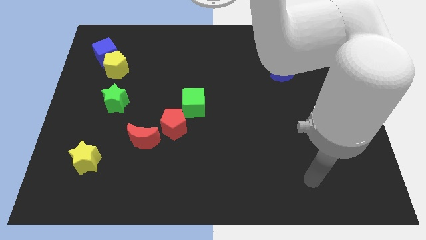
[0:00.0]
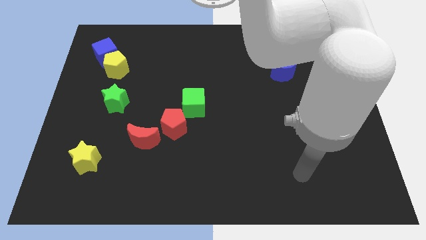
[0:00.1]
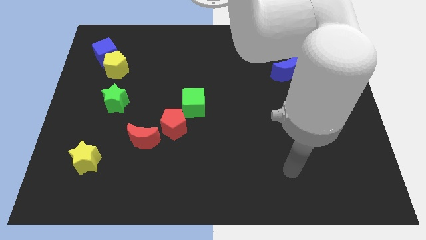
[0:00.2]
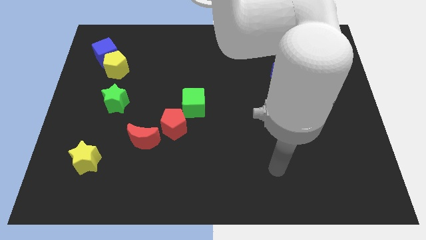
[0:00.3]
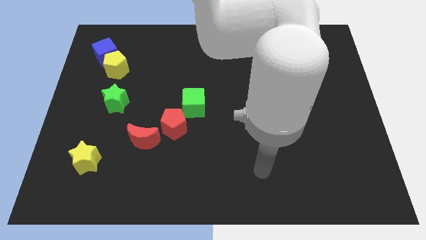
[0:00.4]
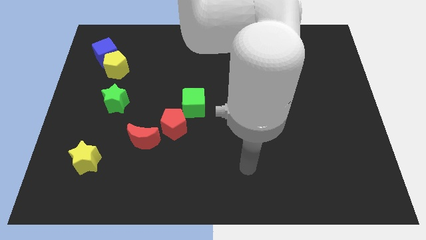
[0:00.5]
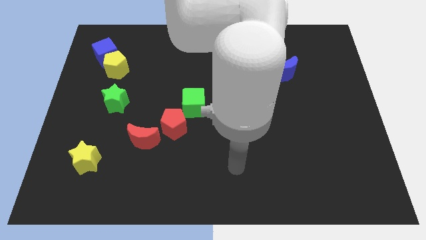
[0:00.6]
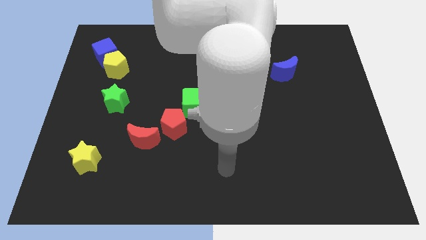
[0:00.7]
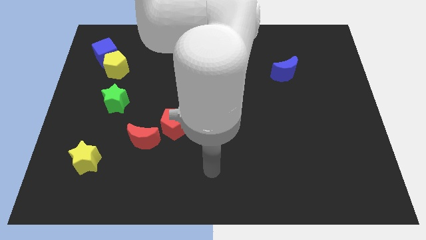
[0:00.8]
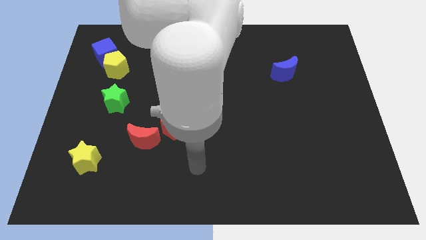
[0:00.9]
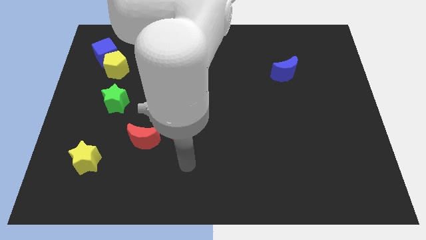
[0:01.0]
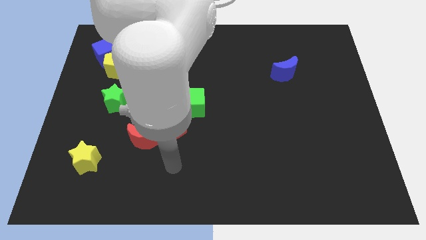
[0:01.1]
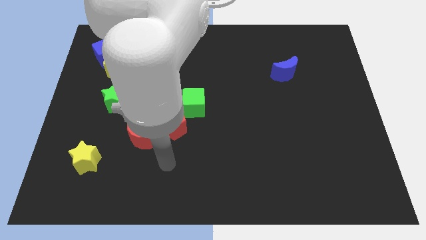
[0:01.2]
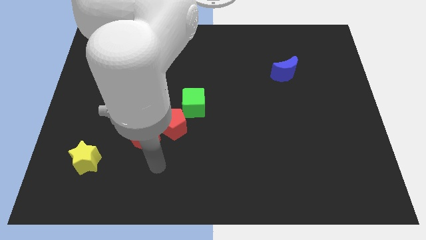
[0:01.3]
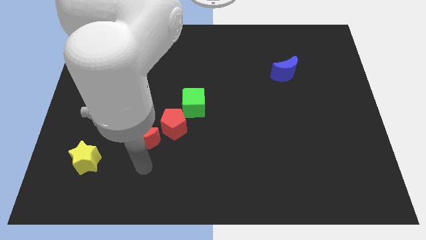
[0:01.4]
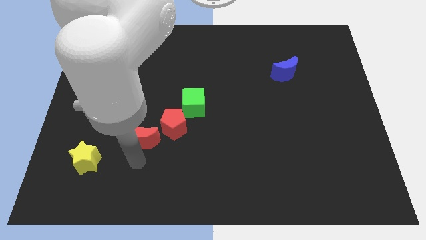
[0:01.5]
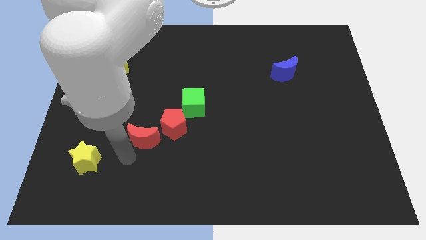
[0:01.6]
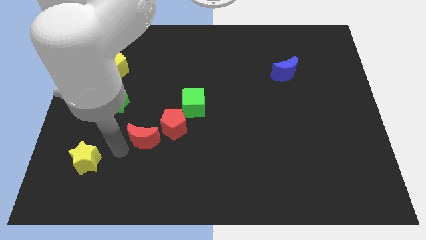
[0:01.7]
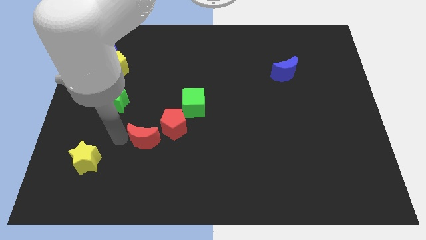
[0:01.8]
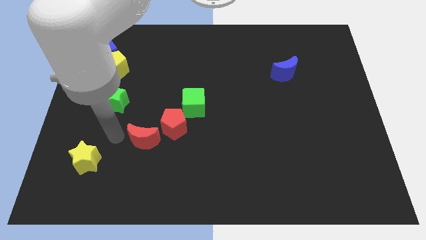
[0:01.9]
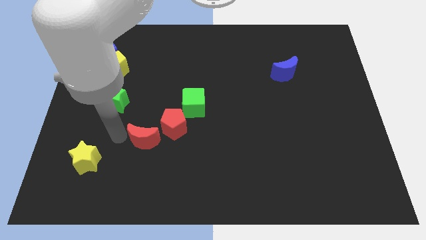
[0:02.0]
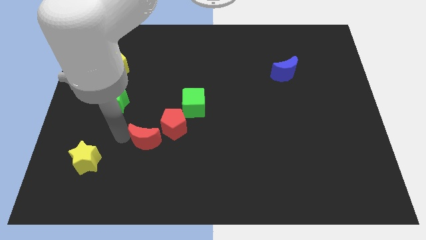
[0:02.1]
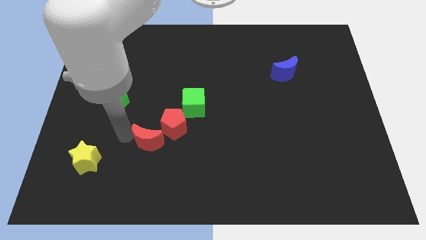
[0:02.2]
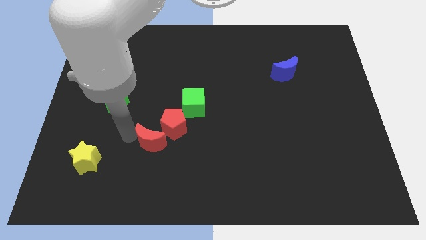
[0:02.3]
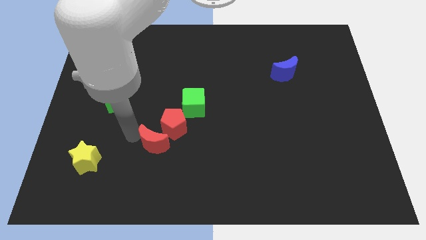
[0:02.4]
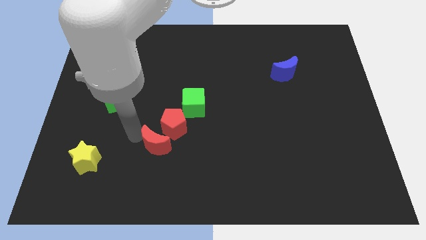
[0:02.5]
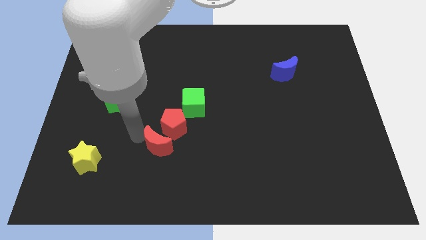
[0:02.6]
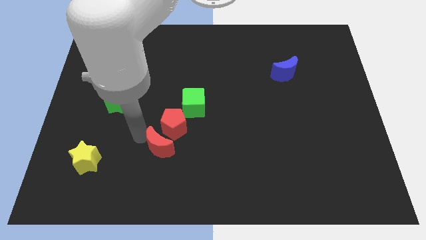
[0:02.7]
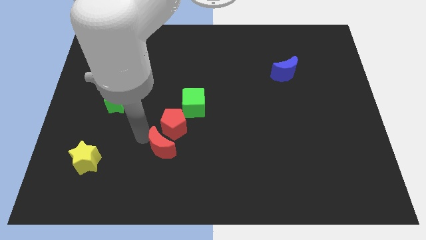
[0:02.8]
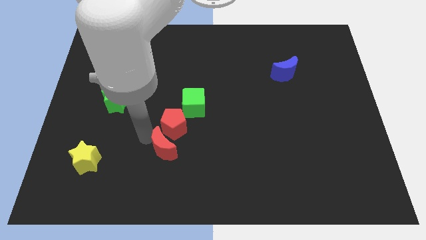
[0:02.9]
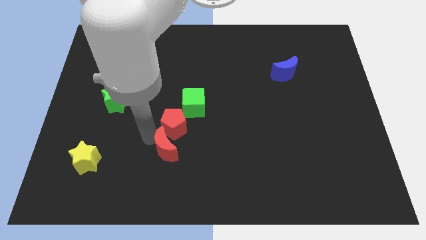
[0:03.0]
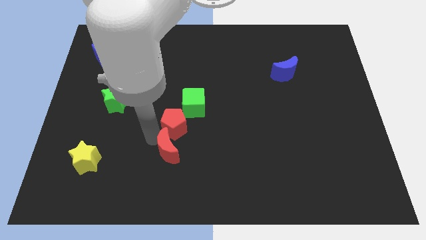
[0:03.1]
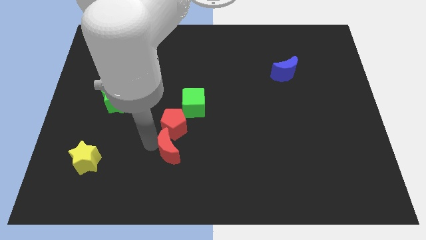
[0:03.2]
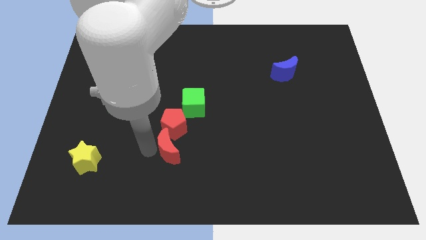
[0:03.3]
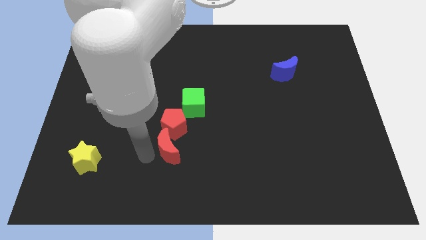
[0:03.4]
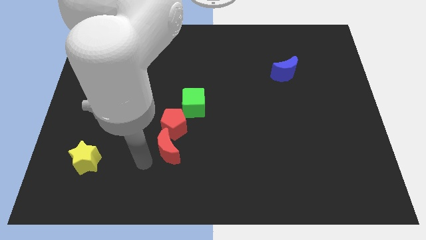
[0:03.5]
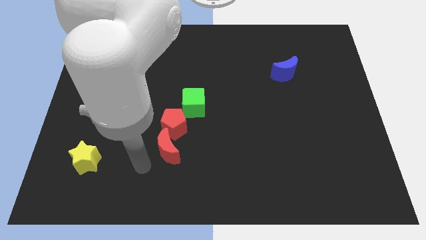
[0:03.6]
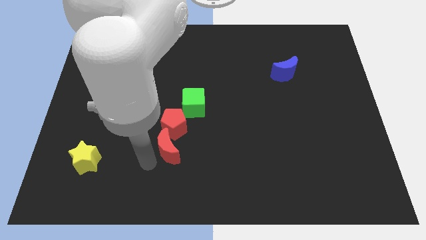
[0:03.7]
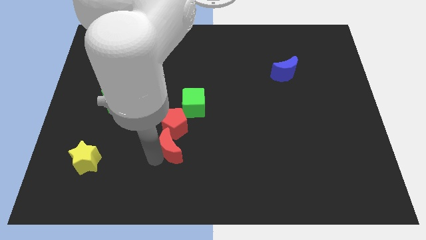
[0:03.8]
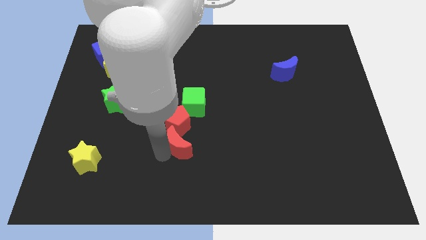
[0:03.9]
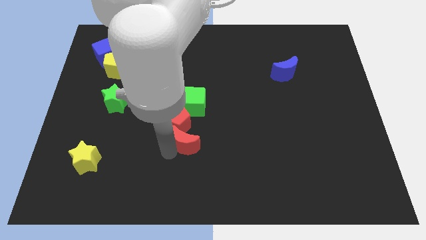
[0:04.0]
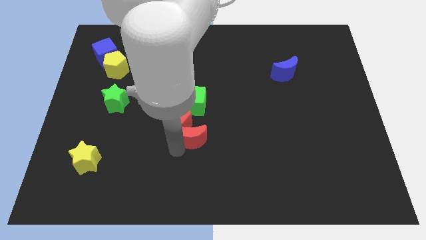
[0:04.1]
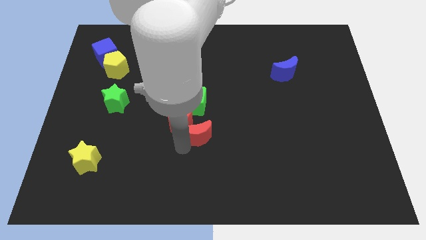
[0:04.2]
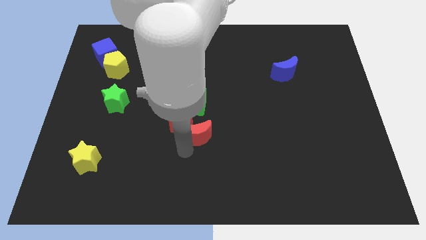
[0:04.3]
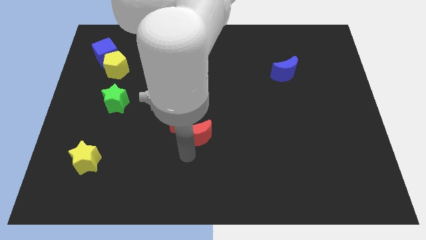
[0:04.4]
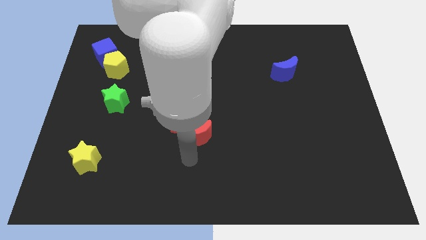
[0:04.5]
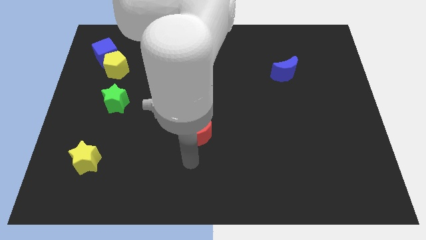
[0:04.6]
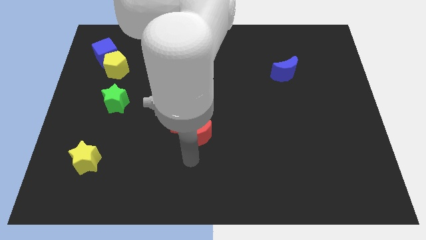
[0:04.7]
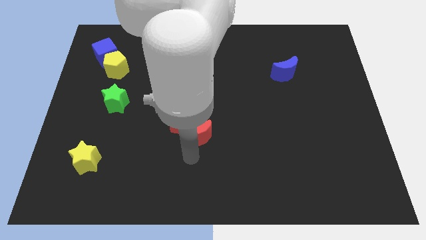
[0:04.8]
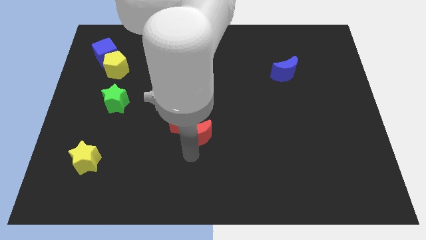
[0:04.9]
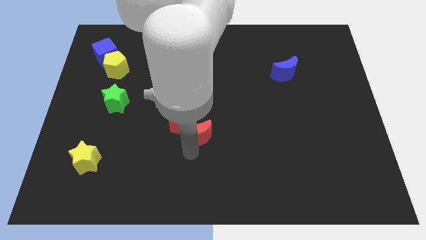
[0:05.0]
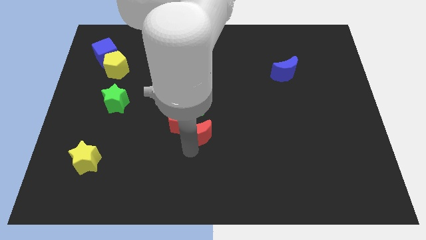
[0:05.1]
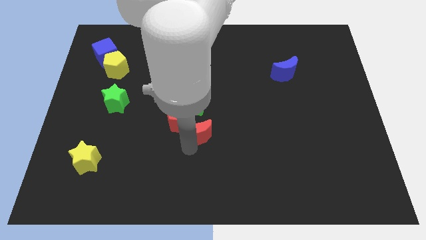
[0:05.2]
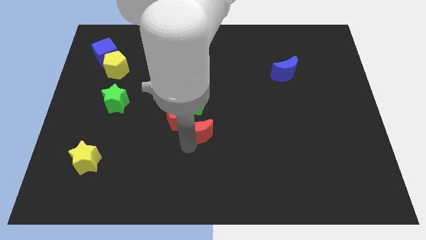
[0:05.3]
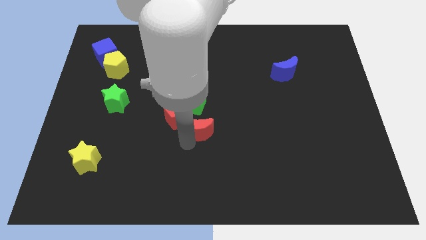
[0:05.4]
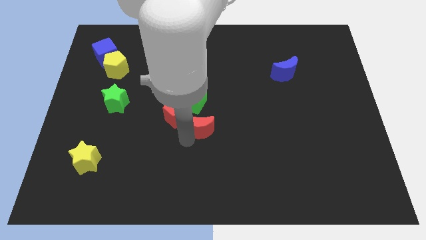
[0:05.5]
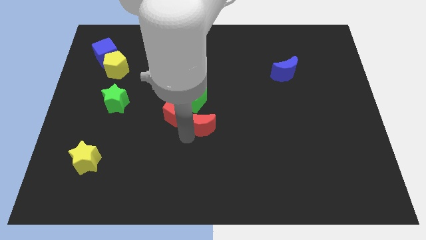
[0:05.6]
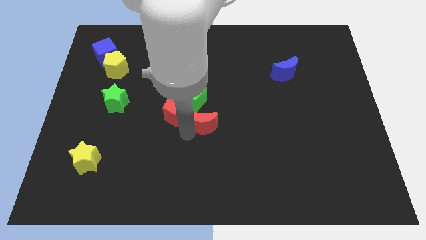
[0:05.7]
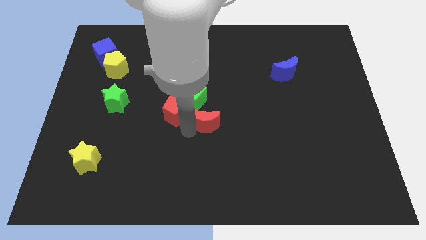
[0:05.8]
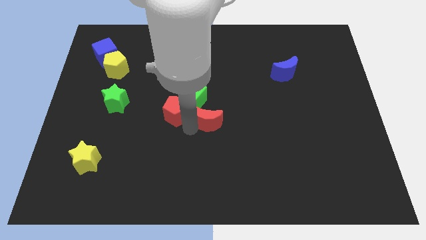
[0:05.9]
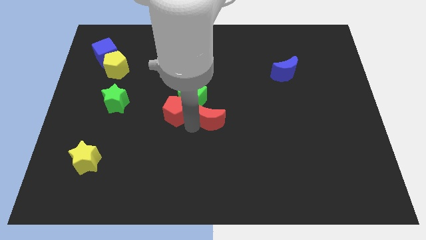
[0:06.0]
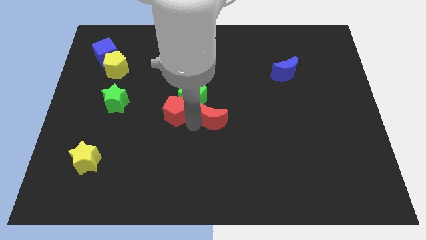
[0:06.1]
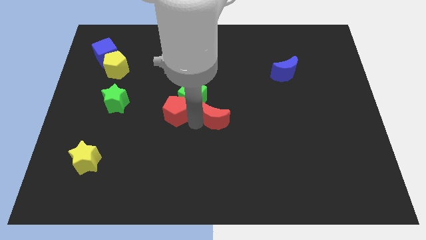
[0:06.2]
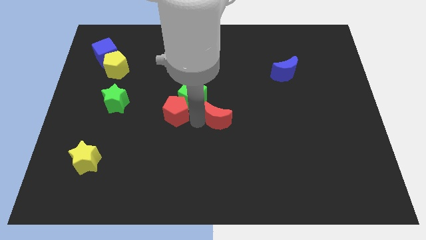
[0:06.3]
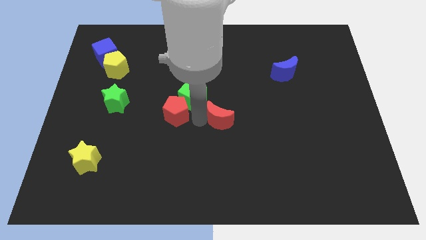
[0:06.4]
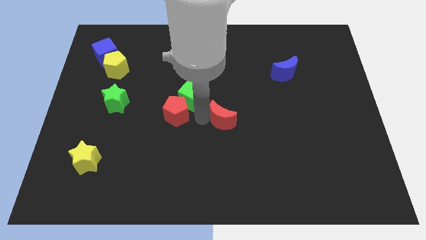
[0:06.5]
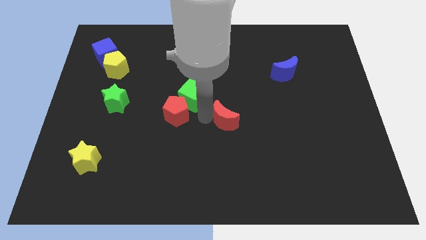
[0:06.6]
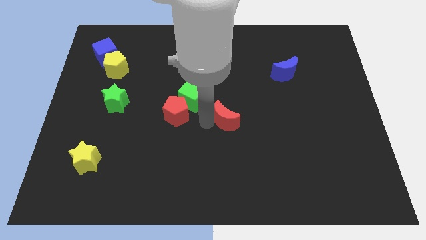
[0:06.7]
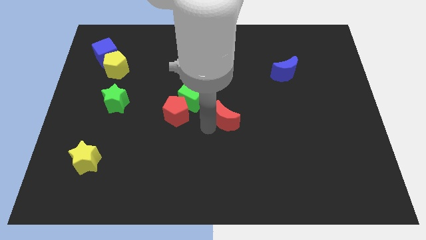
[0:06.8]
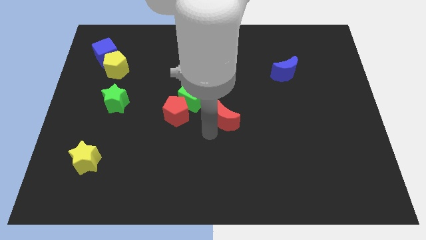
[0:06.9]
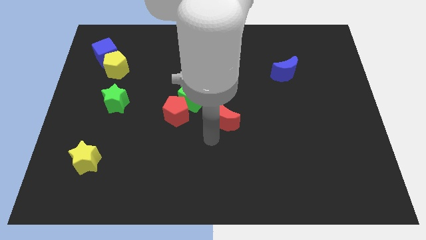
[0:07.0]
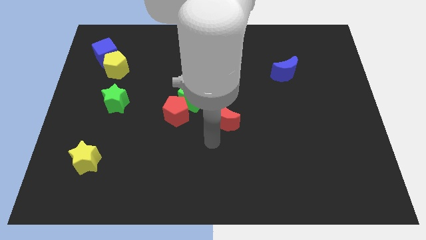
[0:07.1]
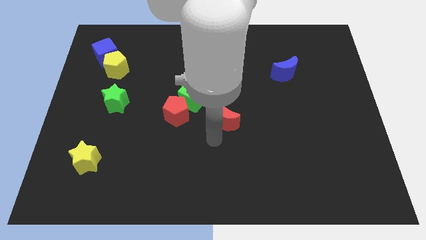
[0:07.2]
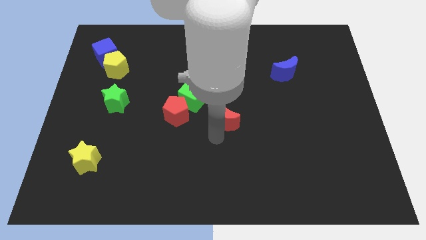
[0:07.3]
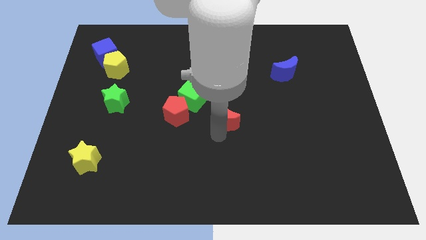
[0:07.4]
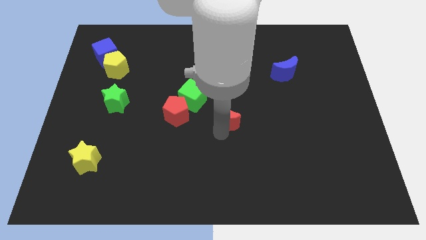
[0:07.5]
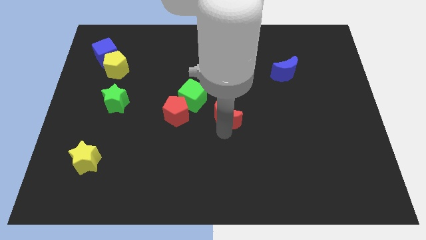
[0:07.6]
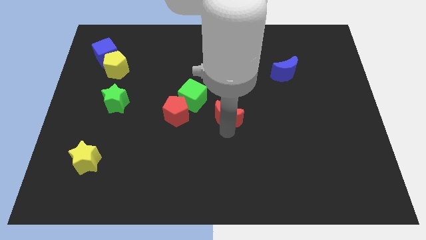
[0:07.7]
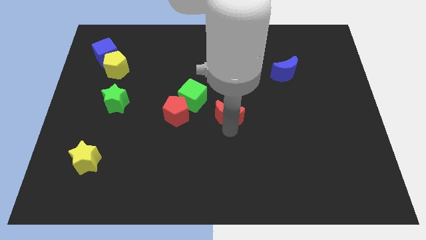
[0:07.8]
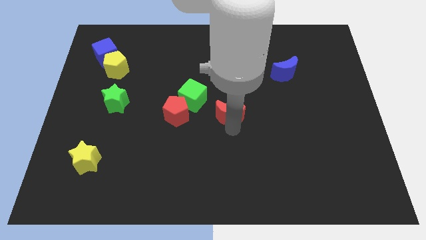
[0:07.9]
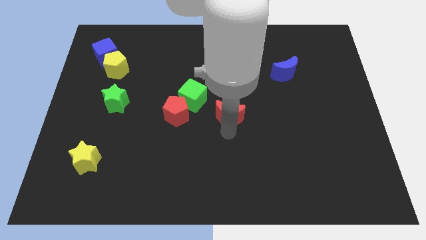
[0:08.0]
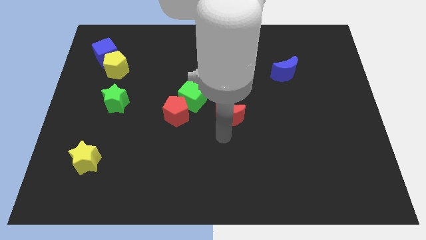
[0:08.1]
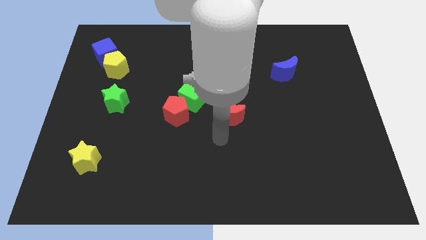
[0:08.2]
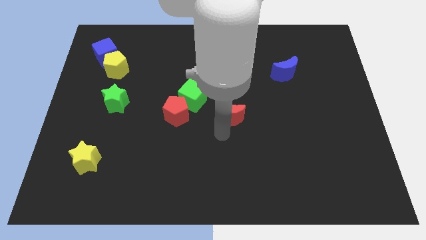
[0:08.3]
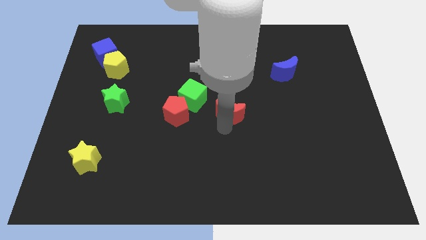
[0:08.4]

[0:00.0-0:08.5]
move the red moon just right of the green cube
